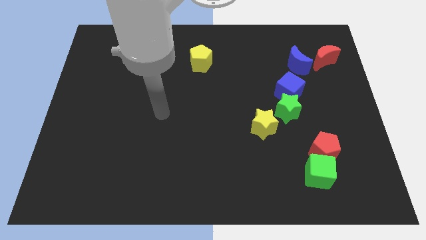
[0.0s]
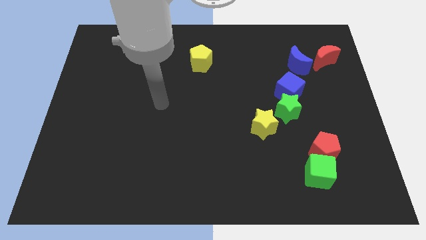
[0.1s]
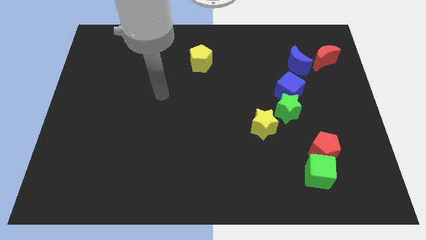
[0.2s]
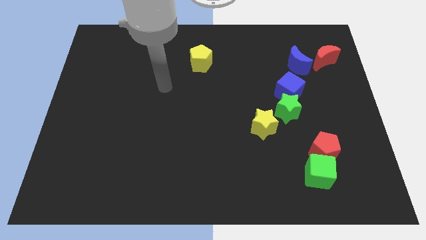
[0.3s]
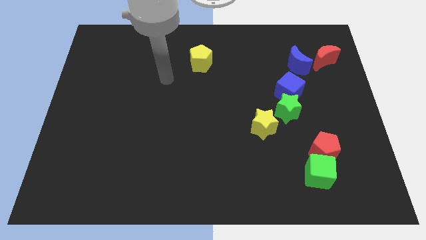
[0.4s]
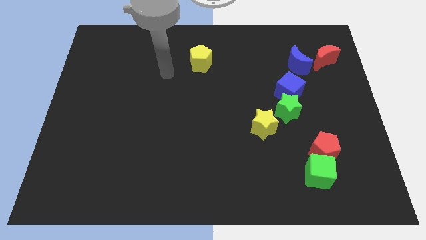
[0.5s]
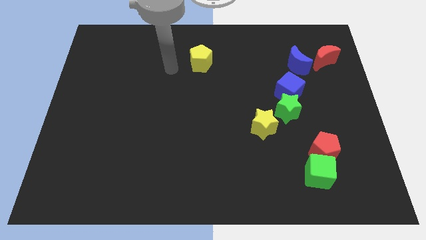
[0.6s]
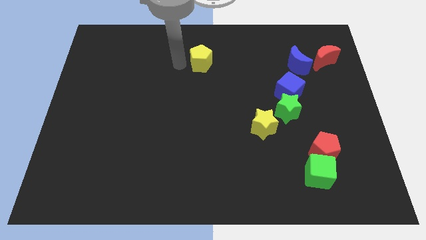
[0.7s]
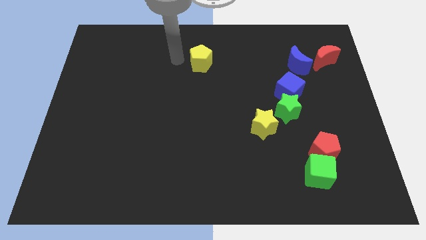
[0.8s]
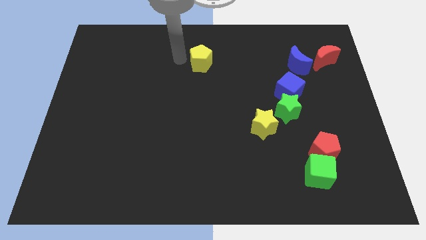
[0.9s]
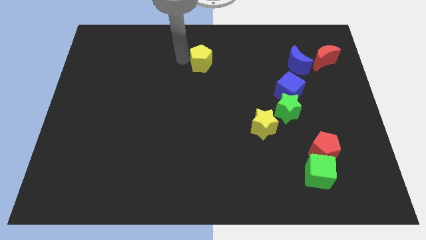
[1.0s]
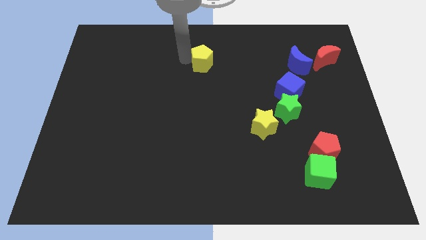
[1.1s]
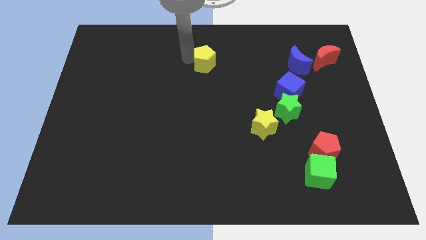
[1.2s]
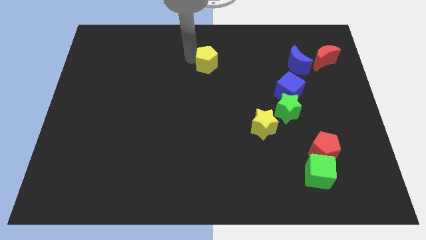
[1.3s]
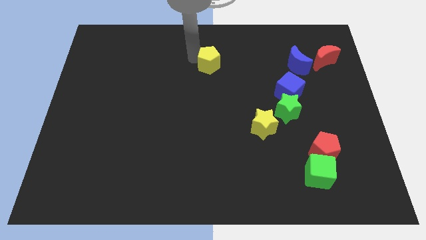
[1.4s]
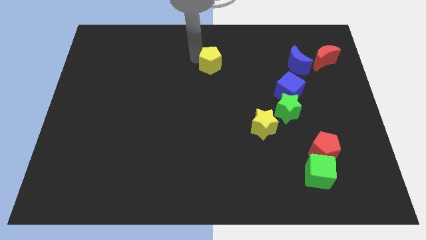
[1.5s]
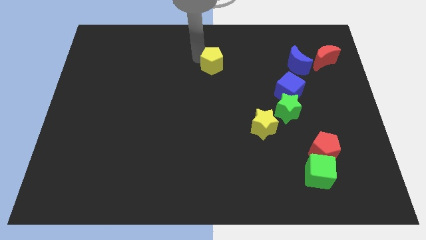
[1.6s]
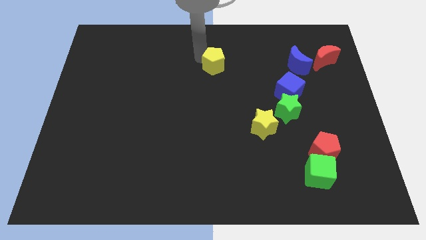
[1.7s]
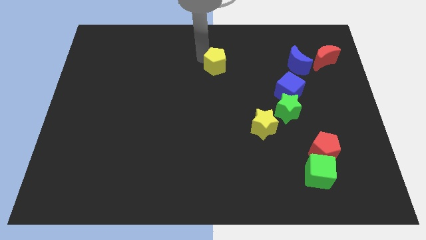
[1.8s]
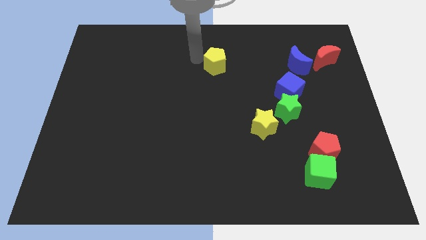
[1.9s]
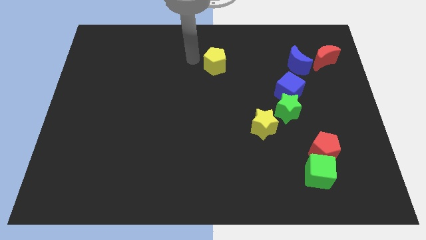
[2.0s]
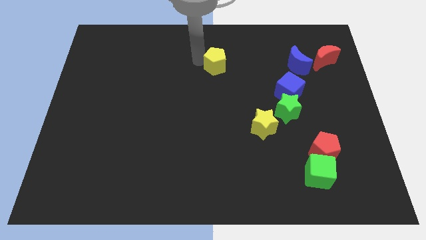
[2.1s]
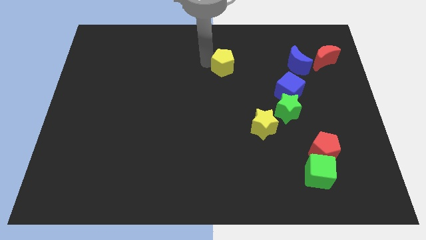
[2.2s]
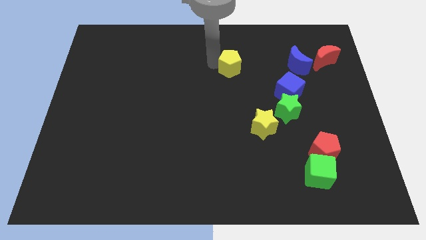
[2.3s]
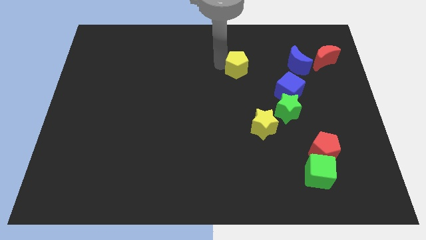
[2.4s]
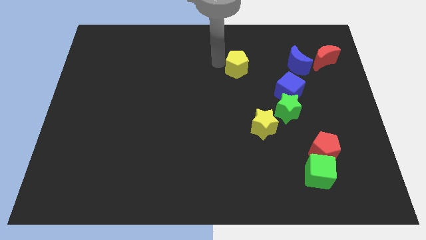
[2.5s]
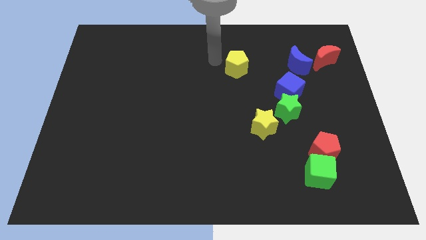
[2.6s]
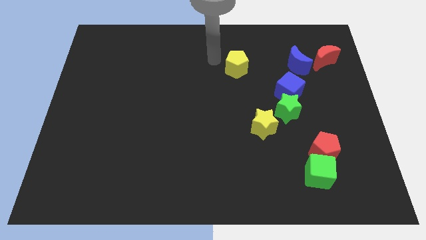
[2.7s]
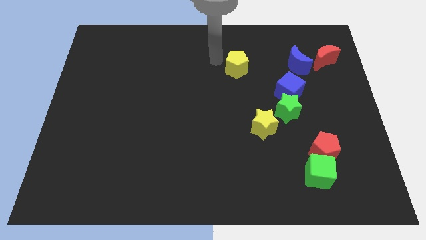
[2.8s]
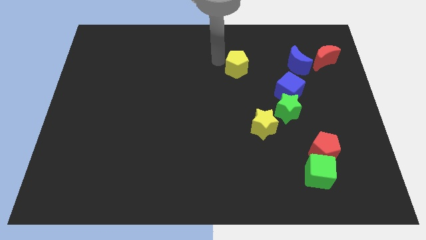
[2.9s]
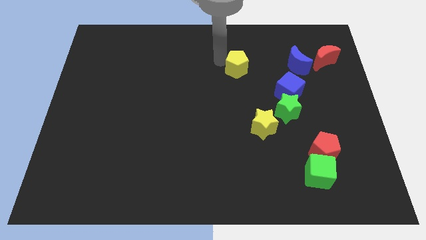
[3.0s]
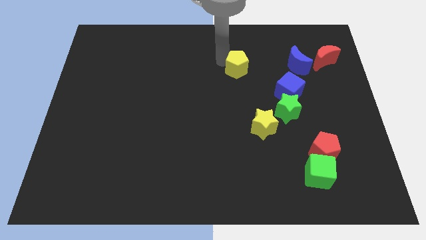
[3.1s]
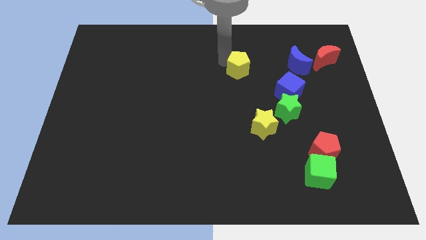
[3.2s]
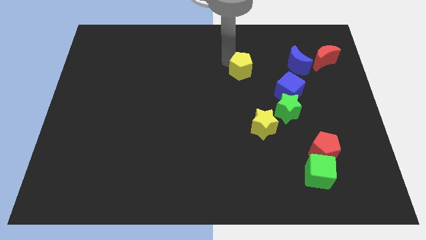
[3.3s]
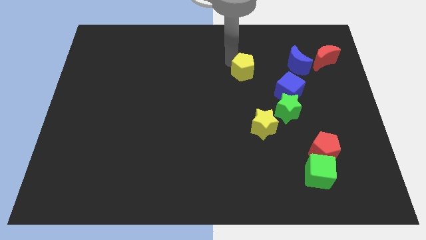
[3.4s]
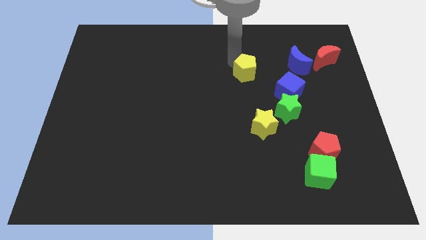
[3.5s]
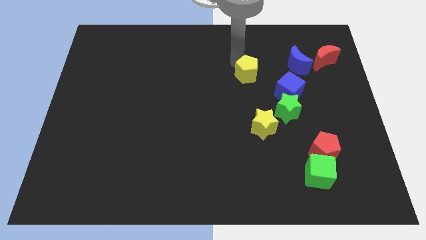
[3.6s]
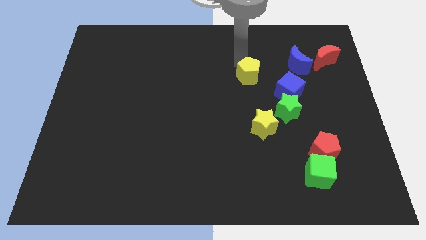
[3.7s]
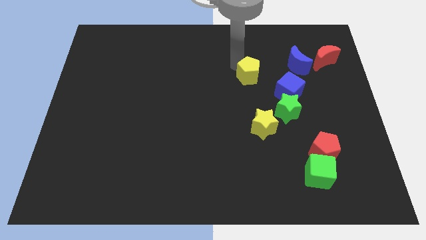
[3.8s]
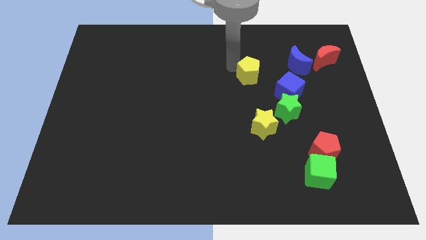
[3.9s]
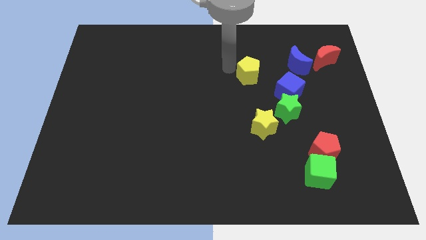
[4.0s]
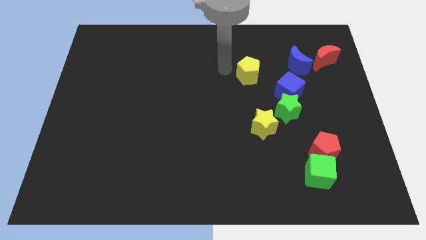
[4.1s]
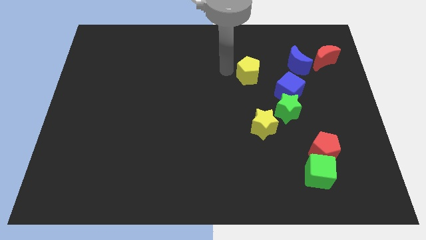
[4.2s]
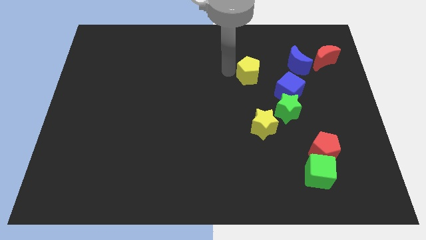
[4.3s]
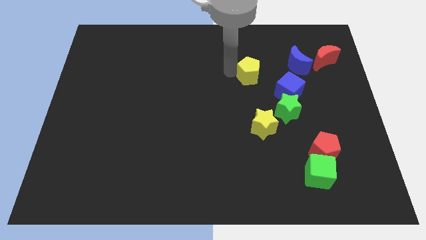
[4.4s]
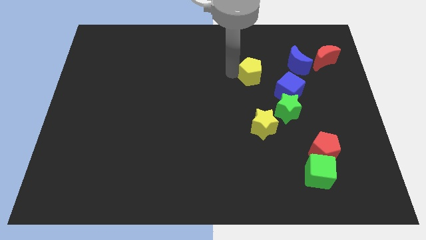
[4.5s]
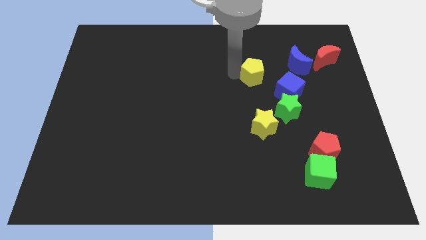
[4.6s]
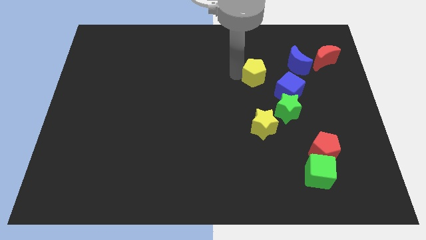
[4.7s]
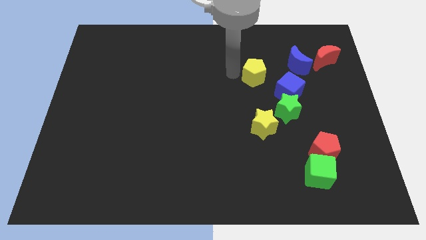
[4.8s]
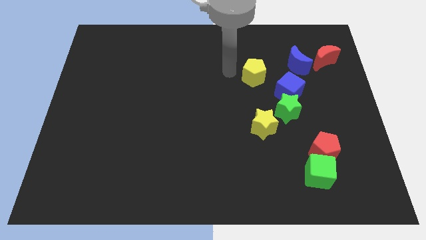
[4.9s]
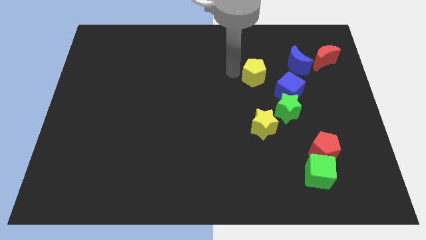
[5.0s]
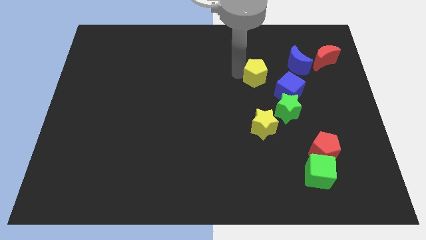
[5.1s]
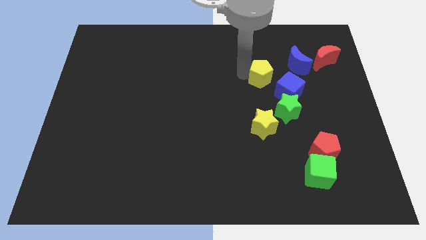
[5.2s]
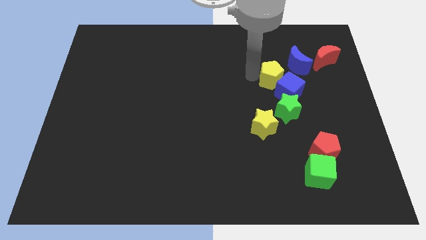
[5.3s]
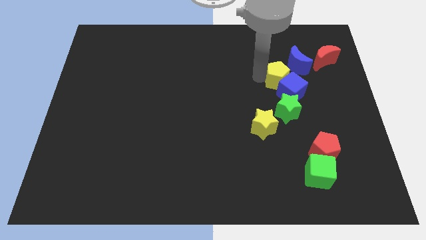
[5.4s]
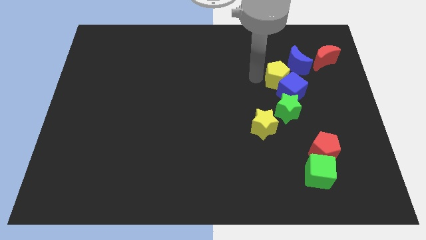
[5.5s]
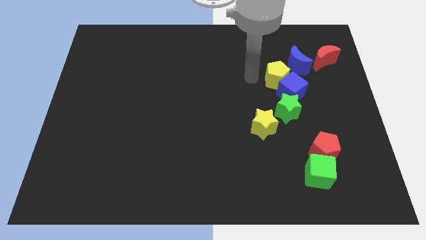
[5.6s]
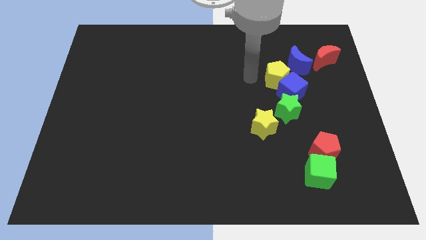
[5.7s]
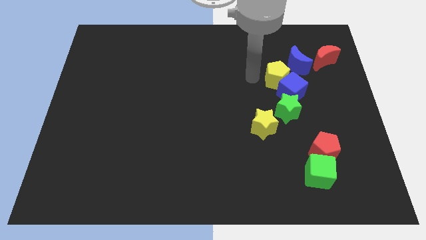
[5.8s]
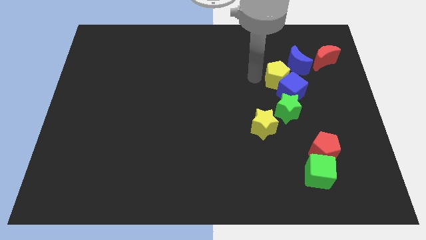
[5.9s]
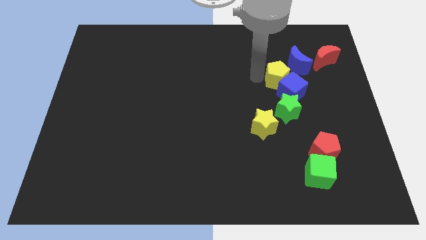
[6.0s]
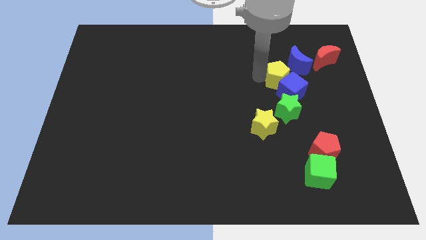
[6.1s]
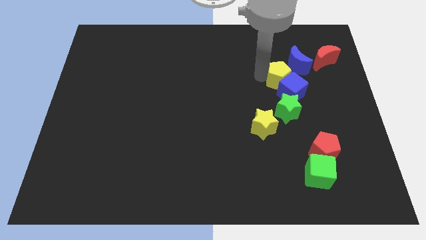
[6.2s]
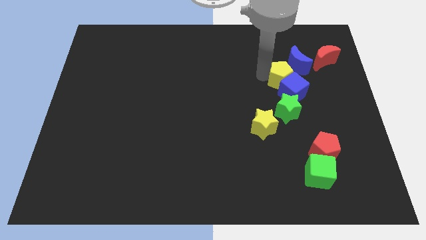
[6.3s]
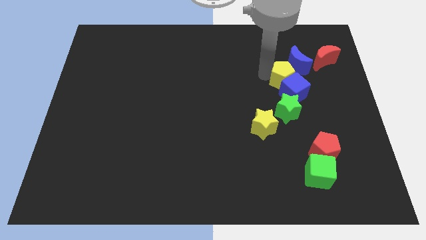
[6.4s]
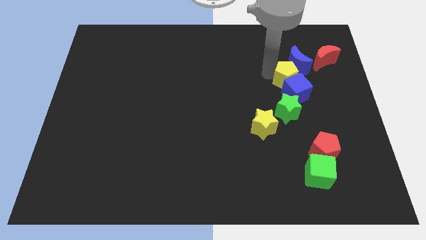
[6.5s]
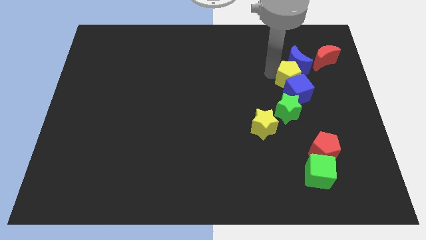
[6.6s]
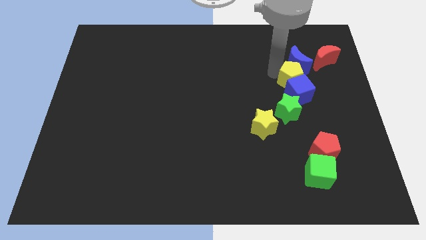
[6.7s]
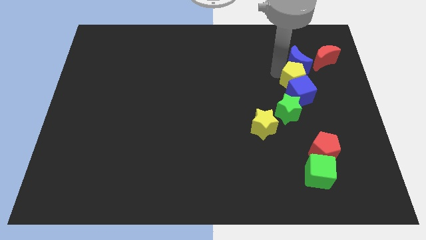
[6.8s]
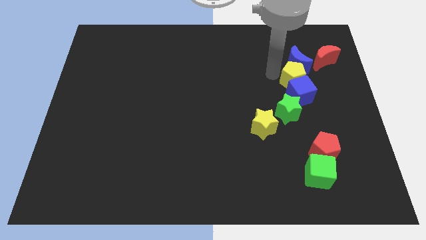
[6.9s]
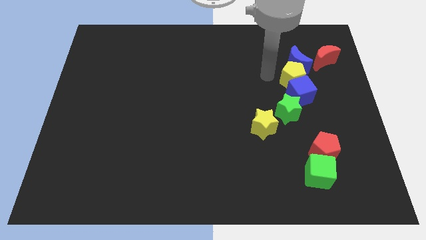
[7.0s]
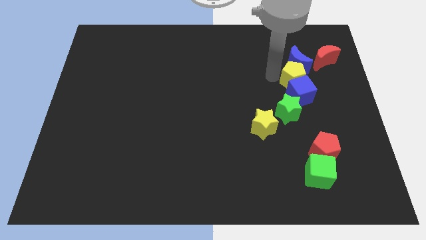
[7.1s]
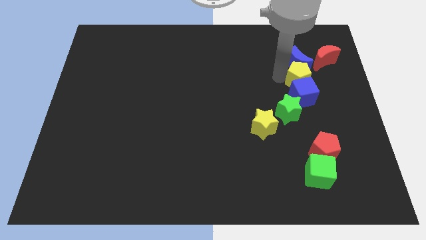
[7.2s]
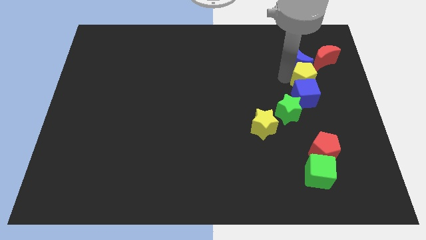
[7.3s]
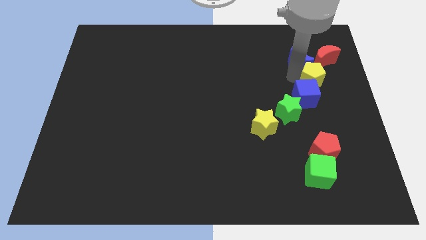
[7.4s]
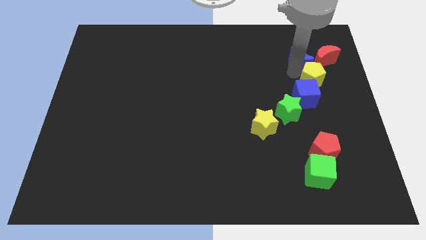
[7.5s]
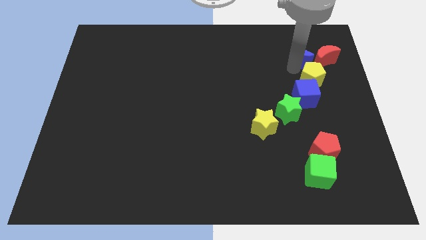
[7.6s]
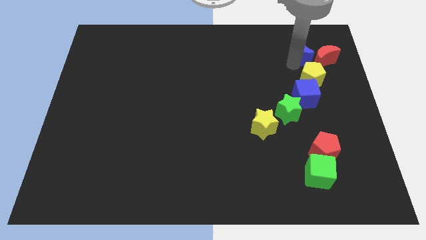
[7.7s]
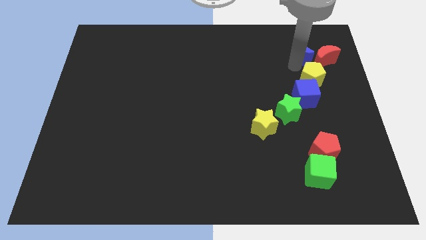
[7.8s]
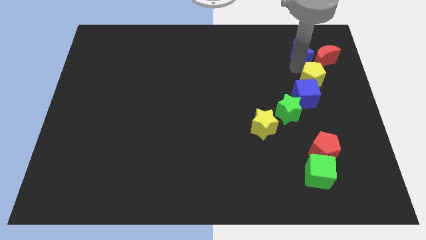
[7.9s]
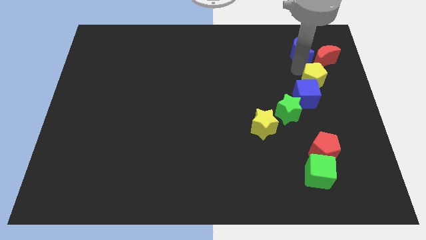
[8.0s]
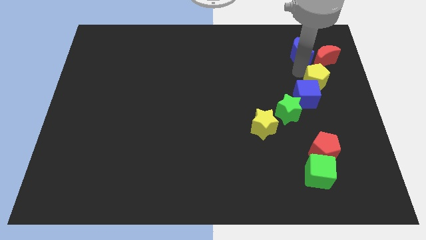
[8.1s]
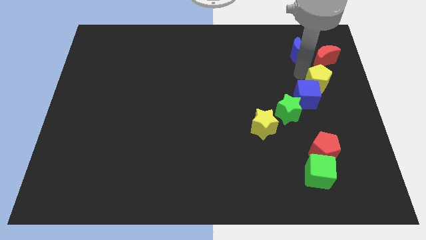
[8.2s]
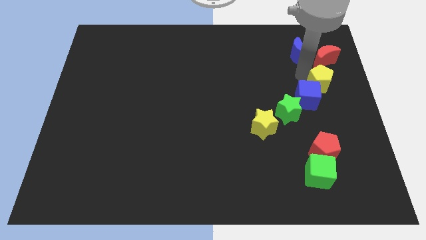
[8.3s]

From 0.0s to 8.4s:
slide the yellow pentagon to the center right
